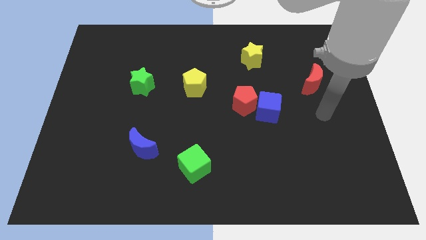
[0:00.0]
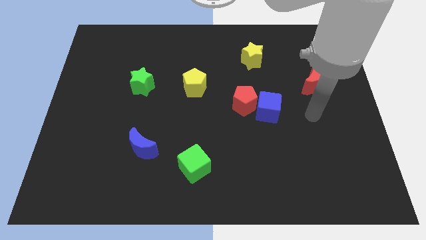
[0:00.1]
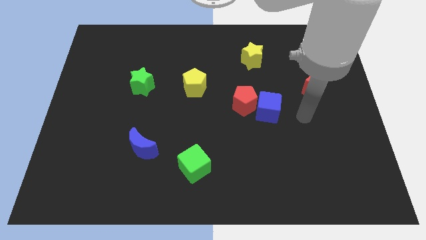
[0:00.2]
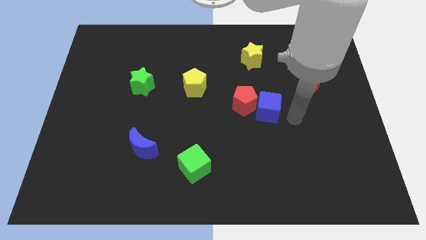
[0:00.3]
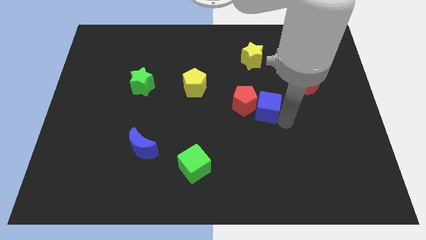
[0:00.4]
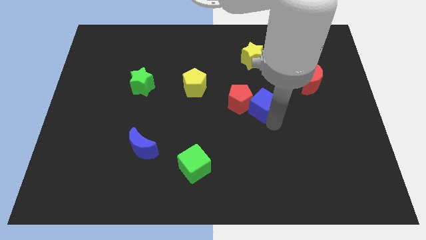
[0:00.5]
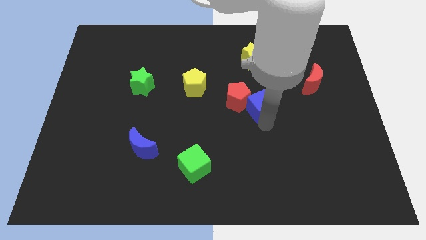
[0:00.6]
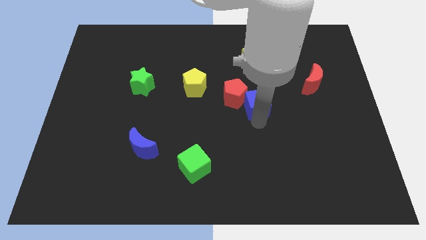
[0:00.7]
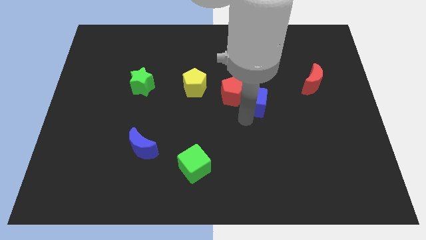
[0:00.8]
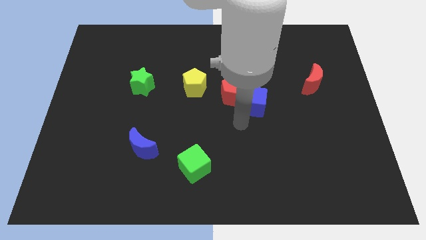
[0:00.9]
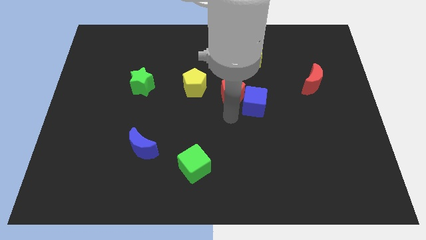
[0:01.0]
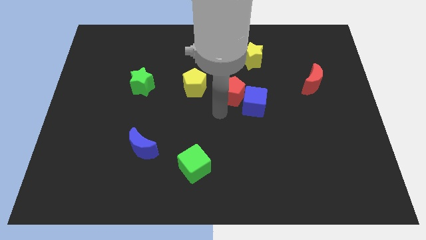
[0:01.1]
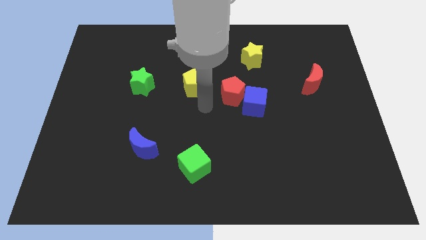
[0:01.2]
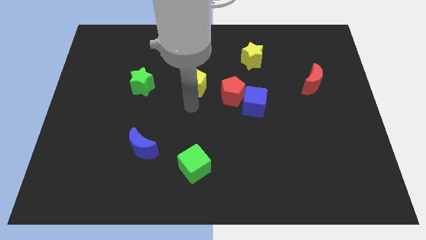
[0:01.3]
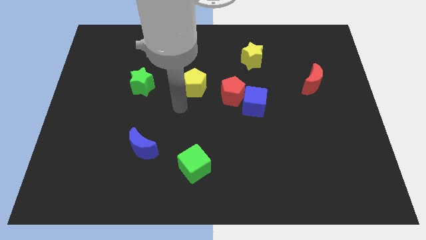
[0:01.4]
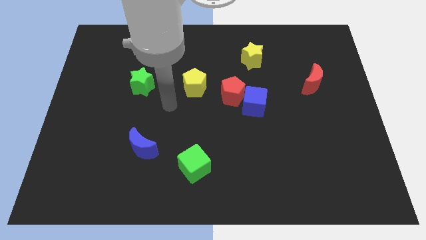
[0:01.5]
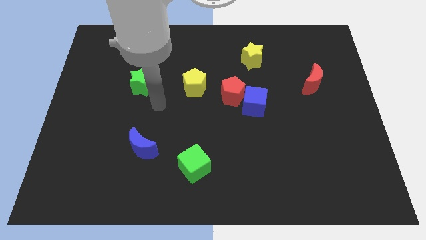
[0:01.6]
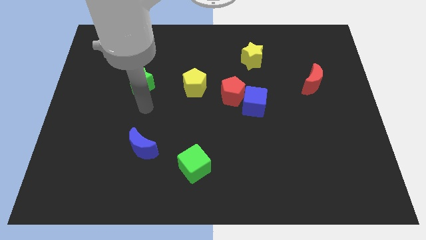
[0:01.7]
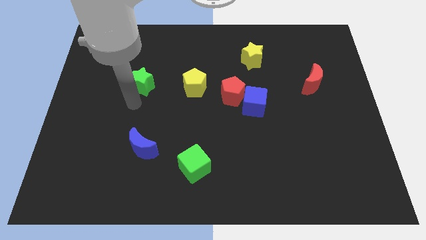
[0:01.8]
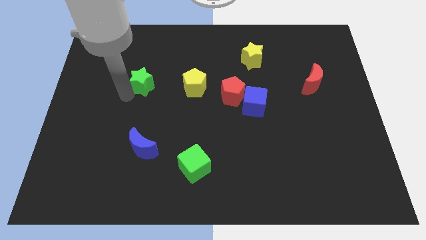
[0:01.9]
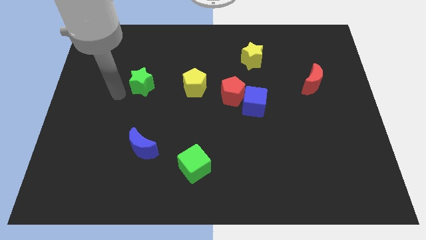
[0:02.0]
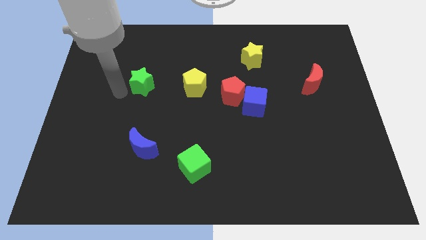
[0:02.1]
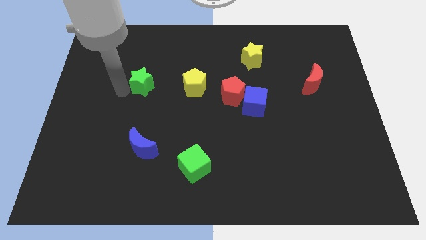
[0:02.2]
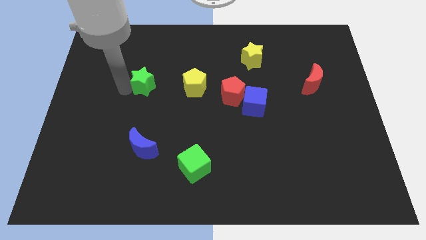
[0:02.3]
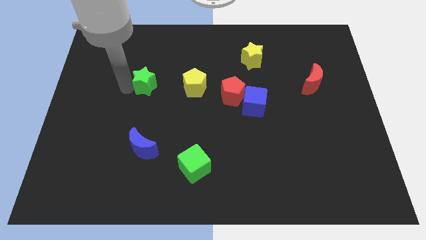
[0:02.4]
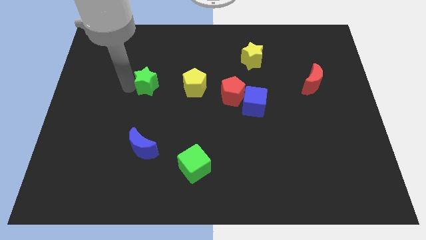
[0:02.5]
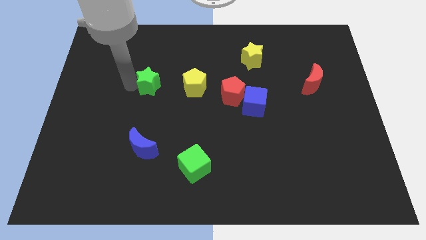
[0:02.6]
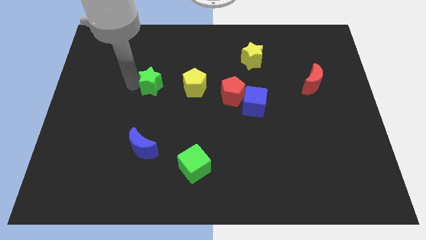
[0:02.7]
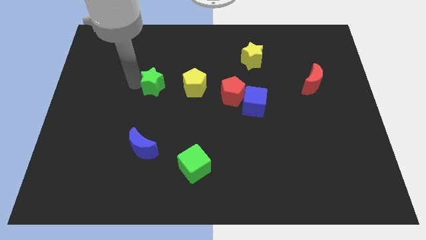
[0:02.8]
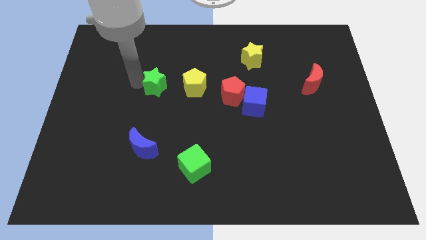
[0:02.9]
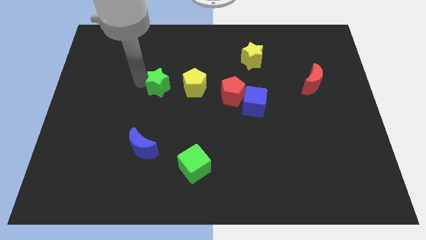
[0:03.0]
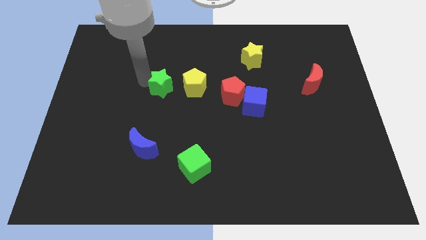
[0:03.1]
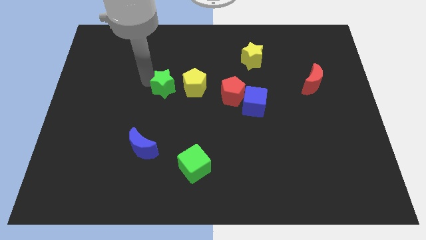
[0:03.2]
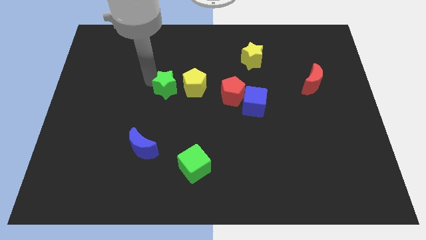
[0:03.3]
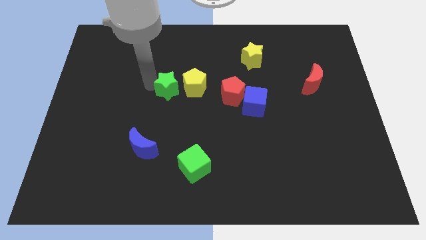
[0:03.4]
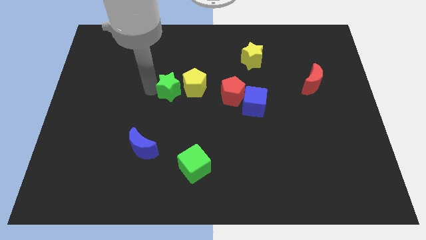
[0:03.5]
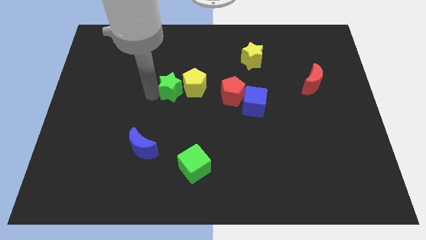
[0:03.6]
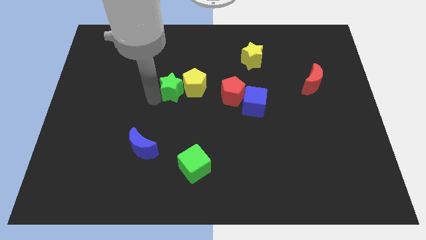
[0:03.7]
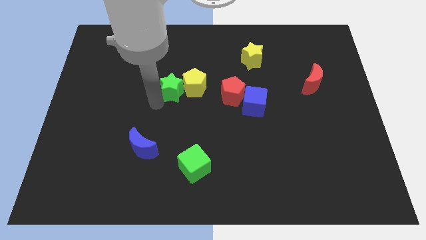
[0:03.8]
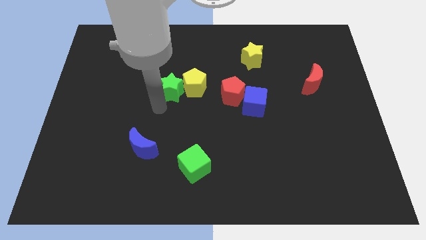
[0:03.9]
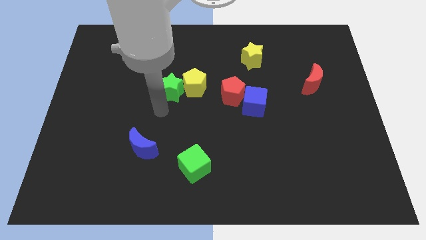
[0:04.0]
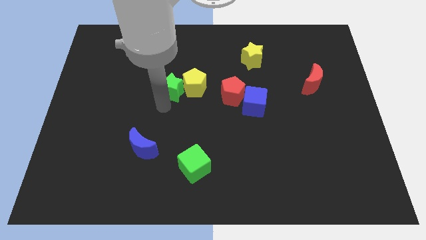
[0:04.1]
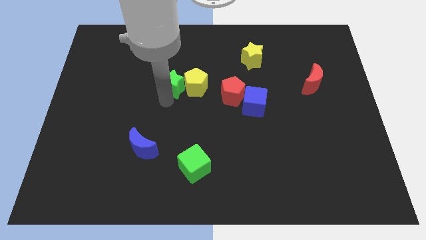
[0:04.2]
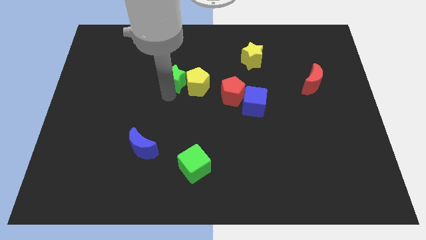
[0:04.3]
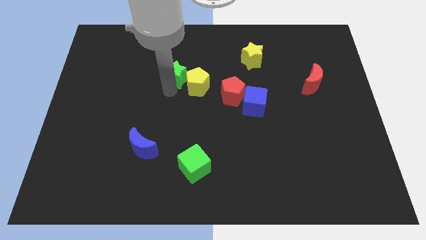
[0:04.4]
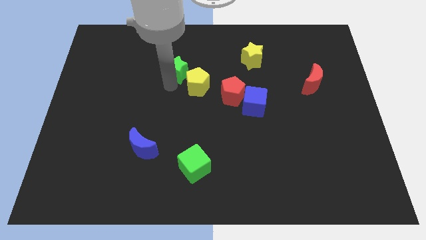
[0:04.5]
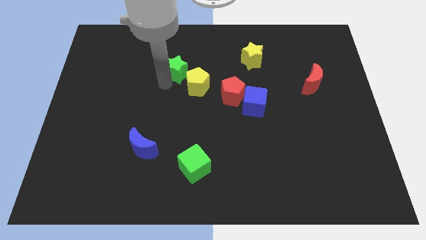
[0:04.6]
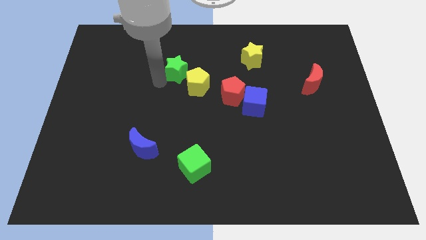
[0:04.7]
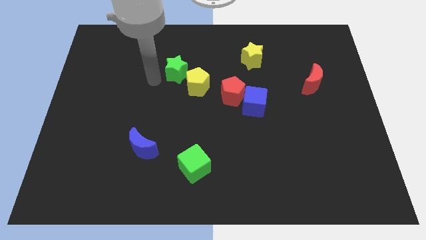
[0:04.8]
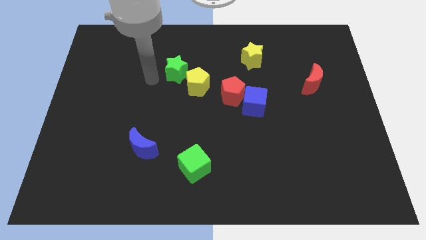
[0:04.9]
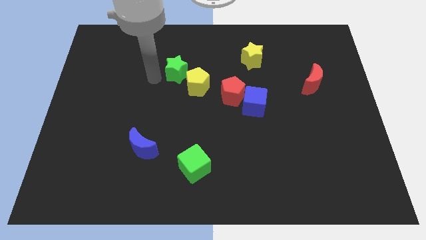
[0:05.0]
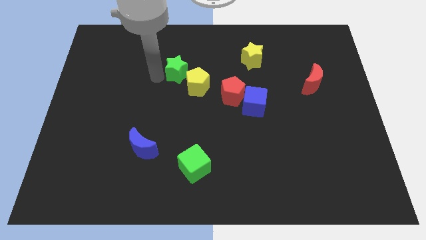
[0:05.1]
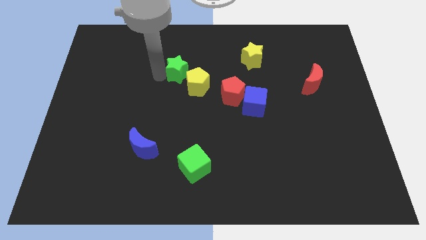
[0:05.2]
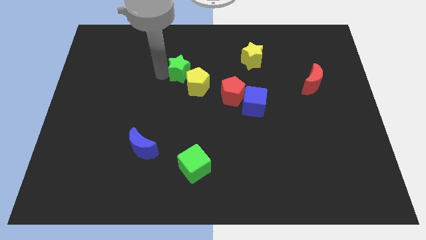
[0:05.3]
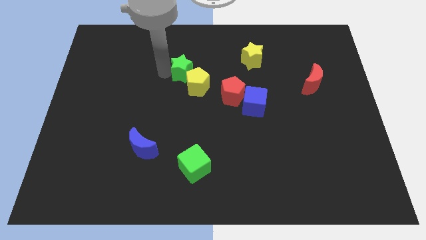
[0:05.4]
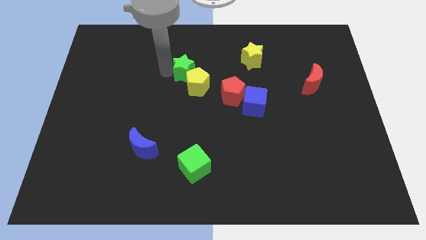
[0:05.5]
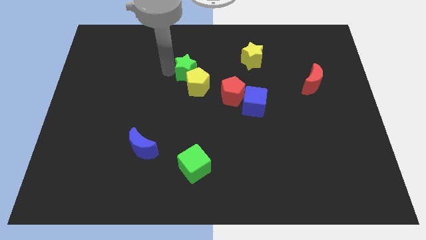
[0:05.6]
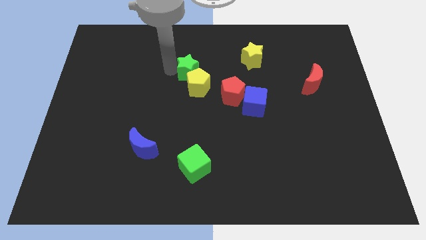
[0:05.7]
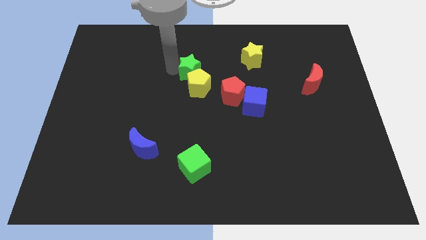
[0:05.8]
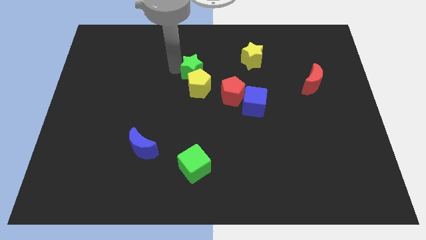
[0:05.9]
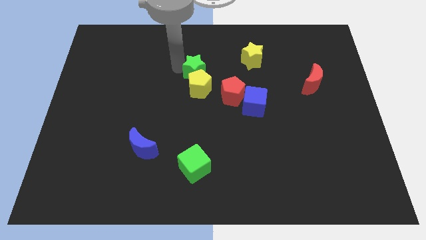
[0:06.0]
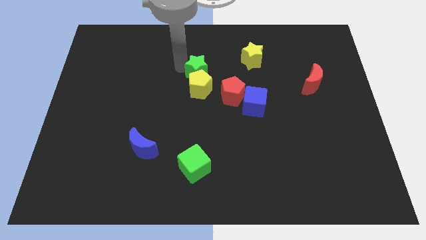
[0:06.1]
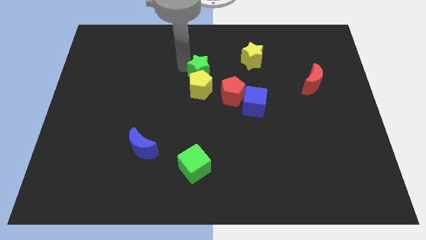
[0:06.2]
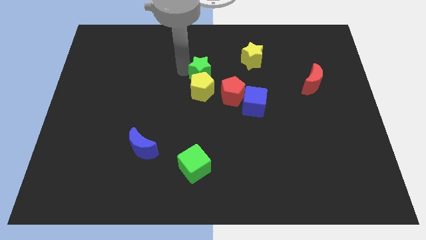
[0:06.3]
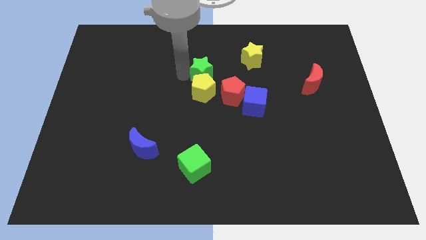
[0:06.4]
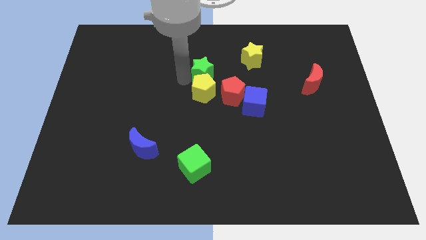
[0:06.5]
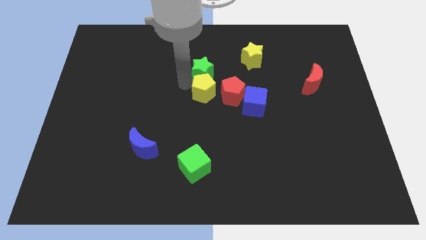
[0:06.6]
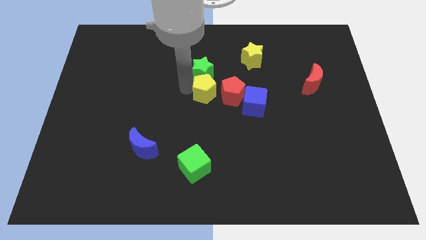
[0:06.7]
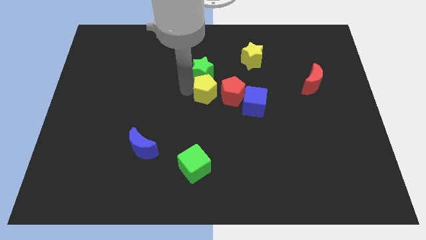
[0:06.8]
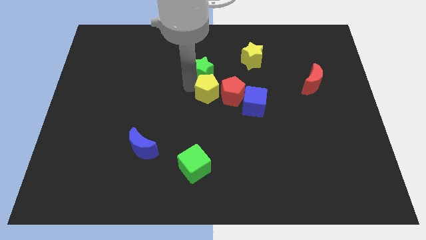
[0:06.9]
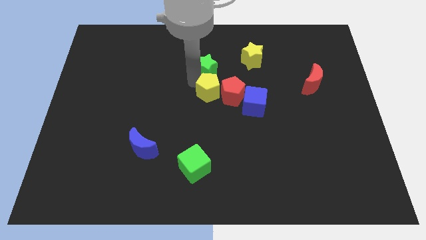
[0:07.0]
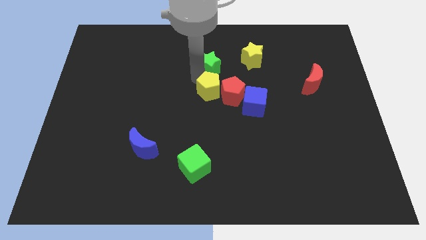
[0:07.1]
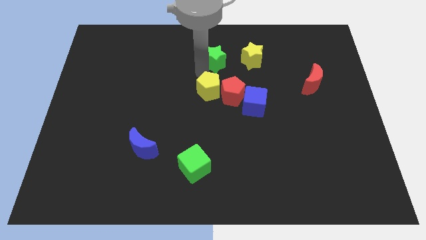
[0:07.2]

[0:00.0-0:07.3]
put the green star above the red pentagon
